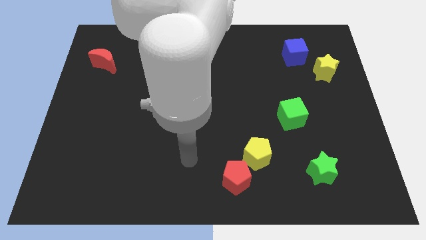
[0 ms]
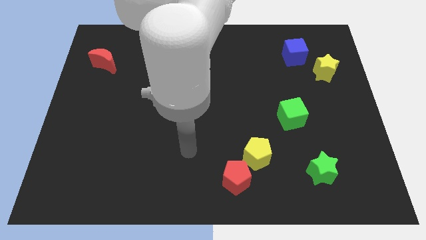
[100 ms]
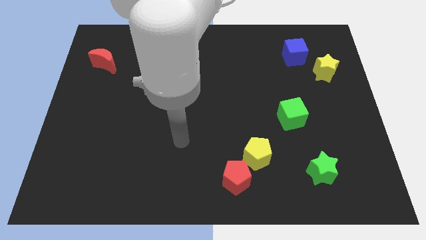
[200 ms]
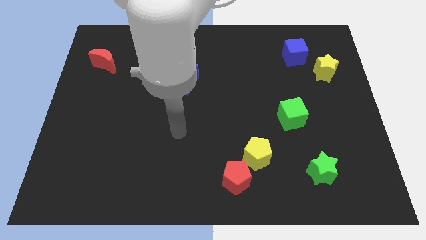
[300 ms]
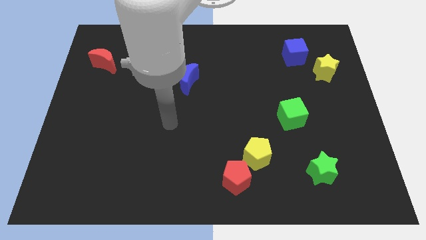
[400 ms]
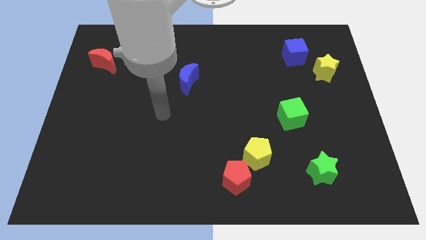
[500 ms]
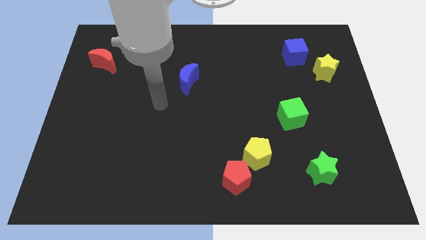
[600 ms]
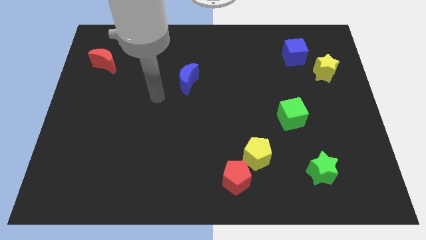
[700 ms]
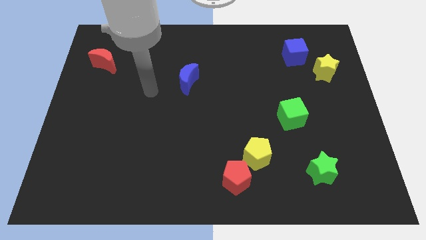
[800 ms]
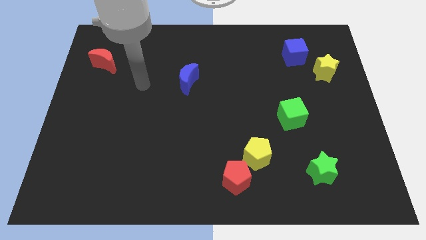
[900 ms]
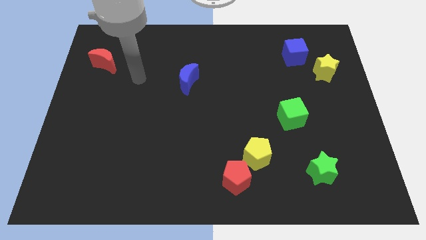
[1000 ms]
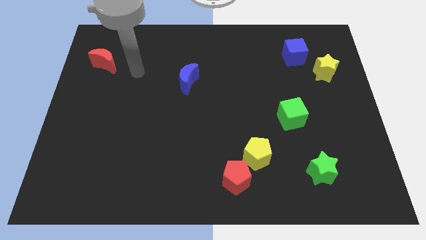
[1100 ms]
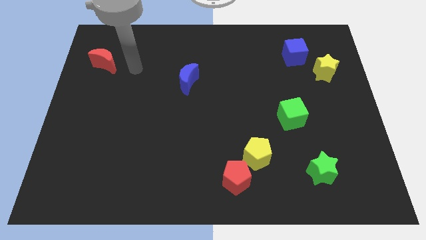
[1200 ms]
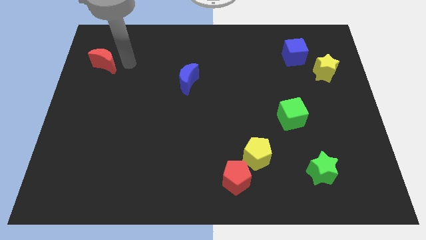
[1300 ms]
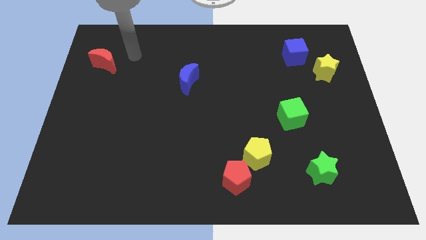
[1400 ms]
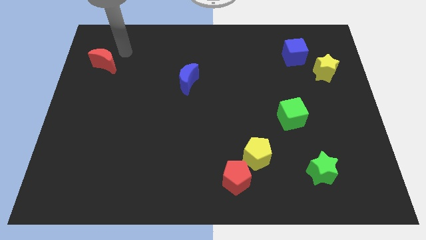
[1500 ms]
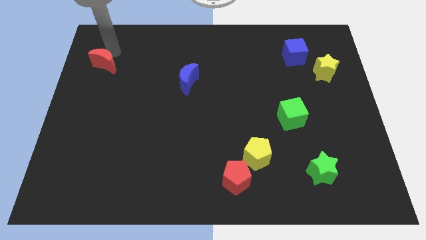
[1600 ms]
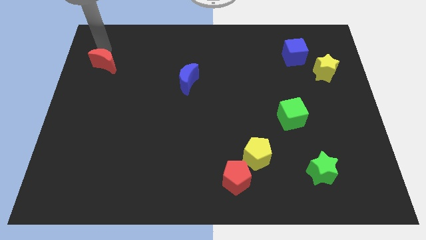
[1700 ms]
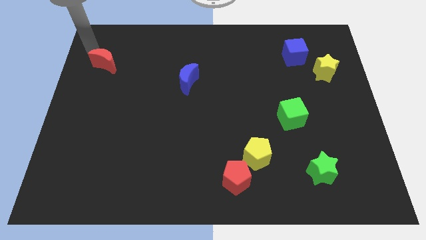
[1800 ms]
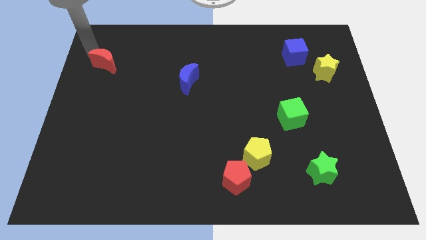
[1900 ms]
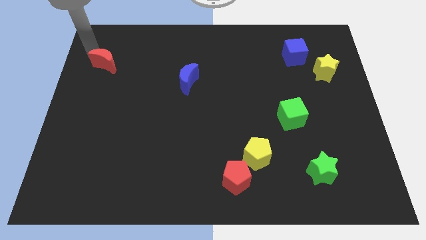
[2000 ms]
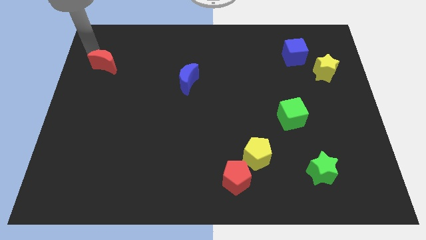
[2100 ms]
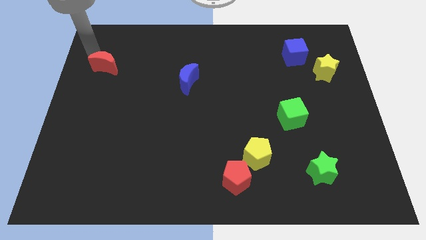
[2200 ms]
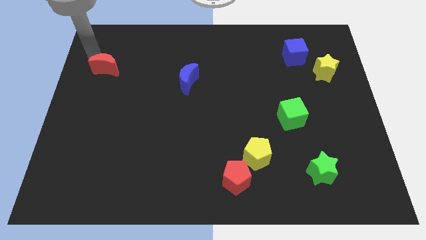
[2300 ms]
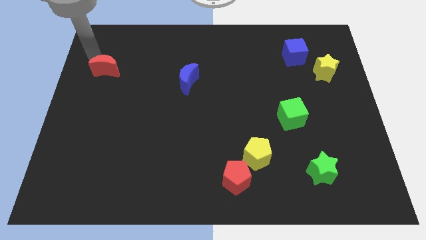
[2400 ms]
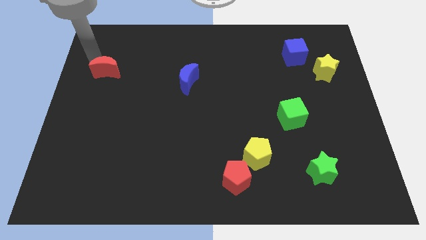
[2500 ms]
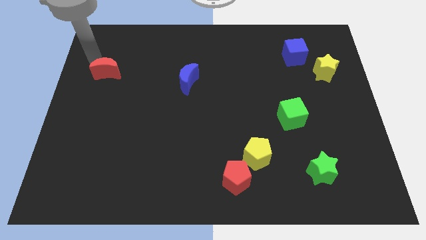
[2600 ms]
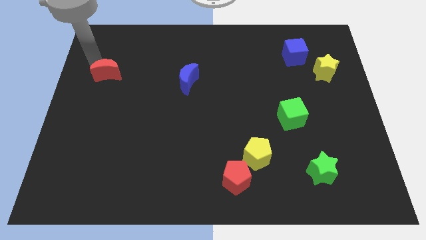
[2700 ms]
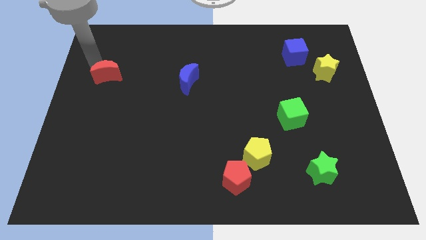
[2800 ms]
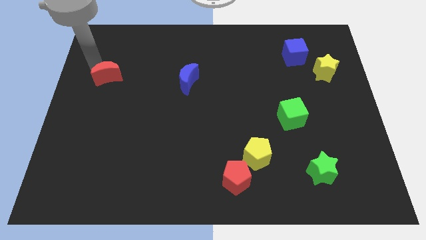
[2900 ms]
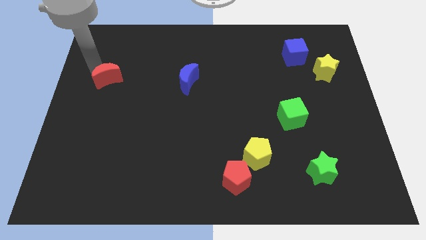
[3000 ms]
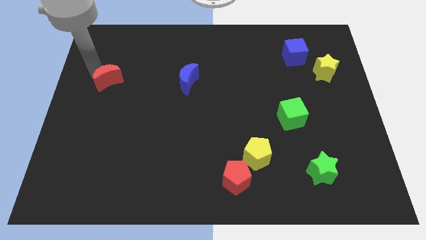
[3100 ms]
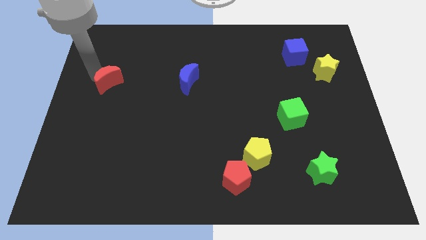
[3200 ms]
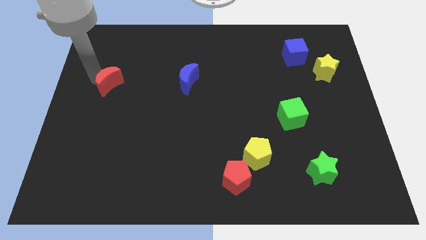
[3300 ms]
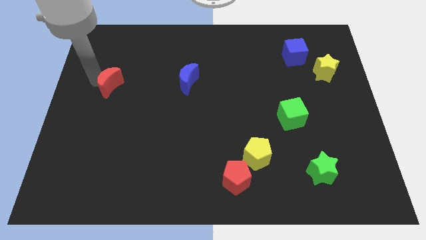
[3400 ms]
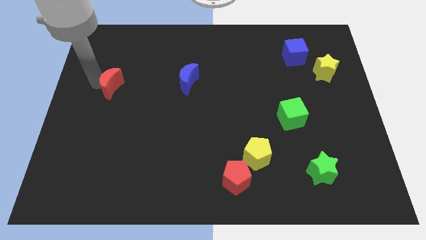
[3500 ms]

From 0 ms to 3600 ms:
push the red moon diagonally down and right somewhat

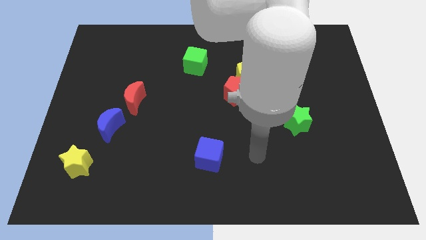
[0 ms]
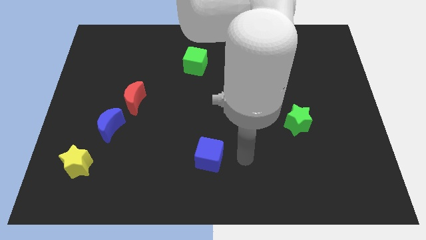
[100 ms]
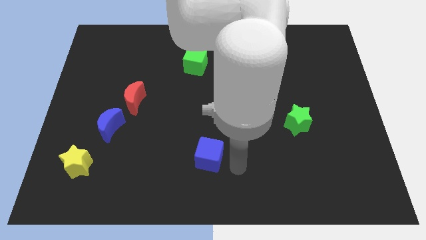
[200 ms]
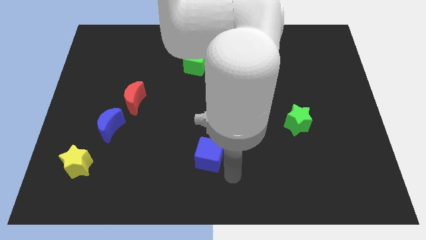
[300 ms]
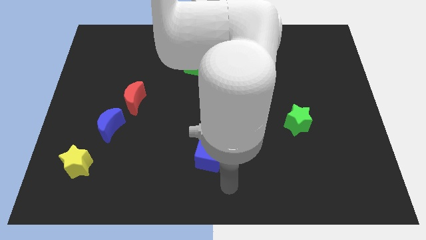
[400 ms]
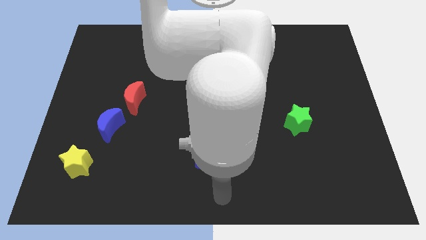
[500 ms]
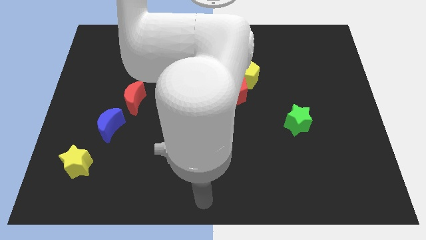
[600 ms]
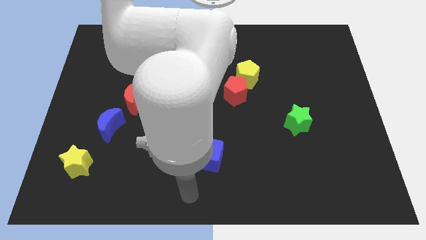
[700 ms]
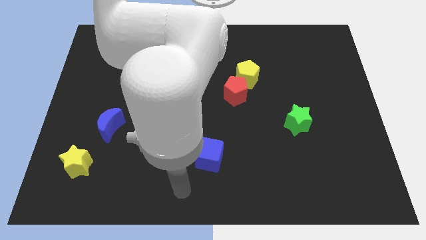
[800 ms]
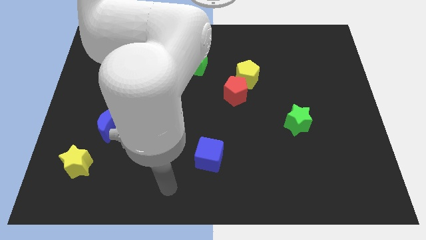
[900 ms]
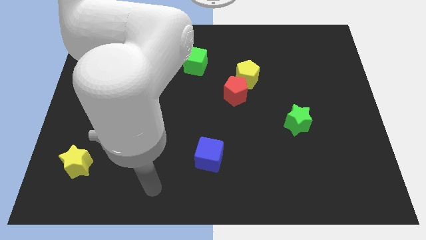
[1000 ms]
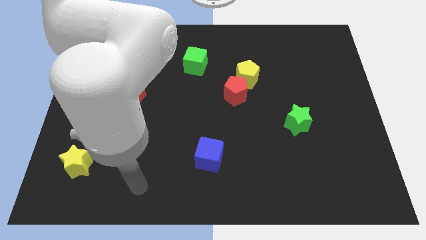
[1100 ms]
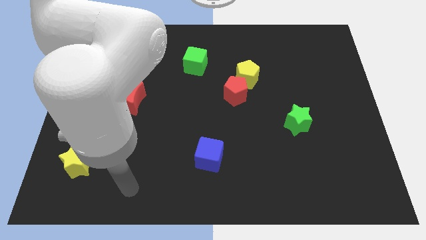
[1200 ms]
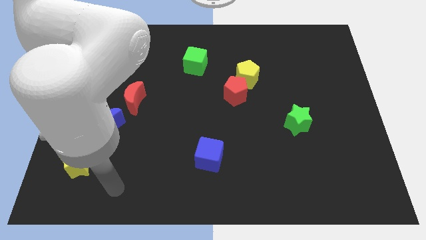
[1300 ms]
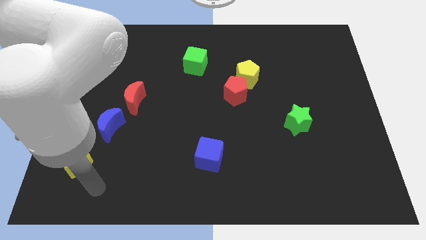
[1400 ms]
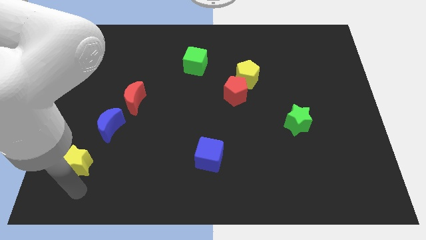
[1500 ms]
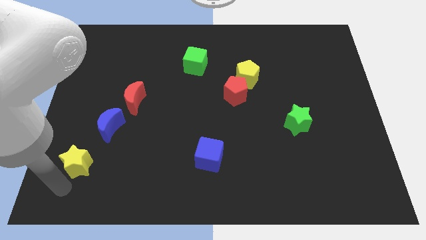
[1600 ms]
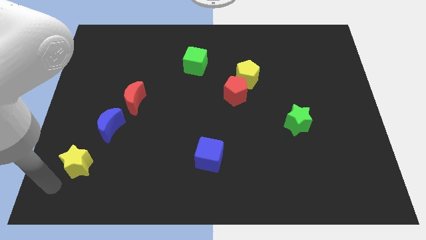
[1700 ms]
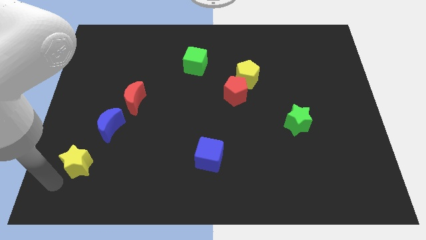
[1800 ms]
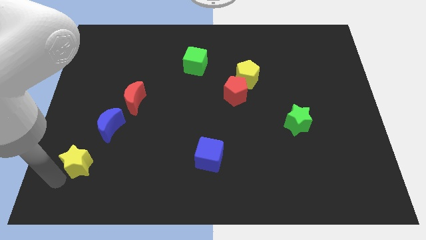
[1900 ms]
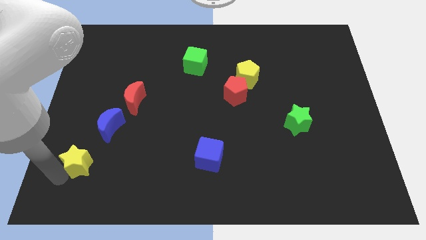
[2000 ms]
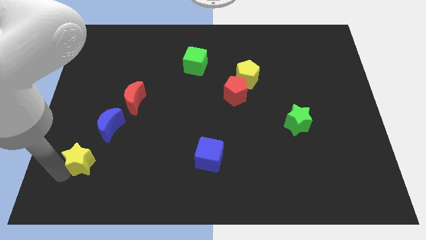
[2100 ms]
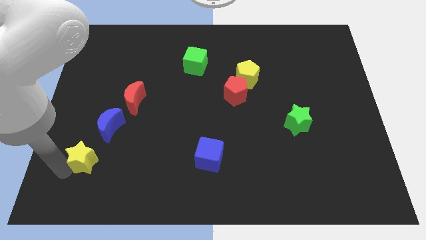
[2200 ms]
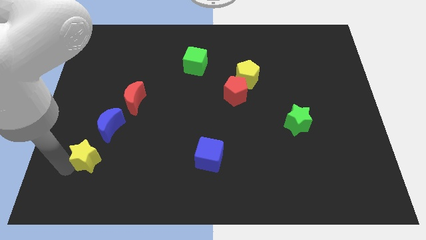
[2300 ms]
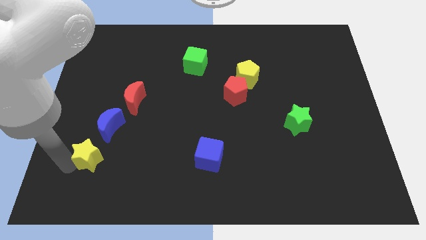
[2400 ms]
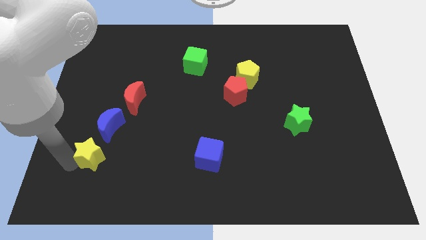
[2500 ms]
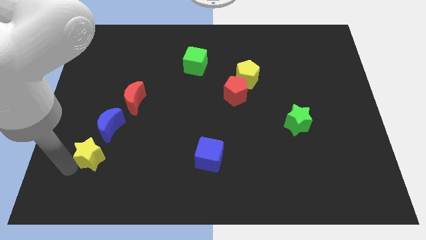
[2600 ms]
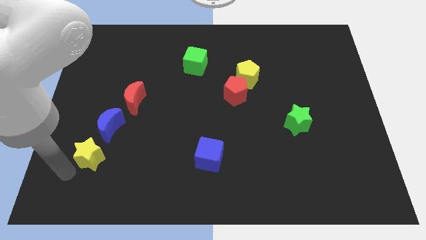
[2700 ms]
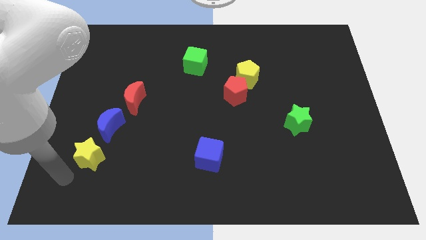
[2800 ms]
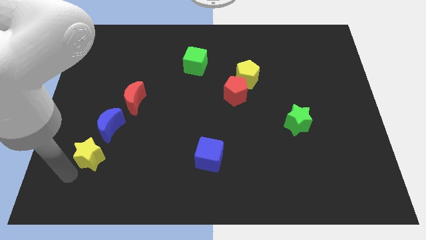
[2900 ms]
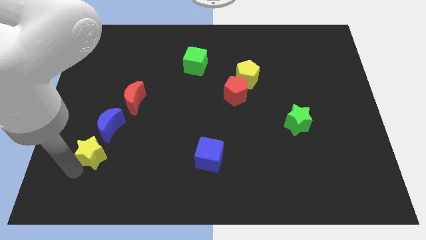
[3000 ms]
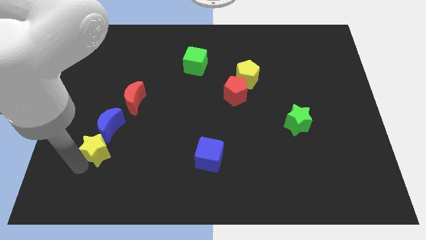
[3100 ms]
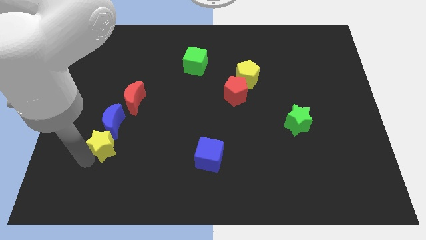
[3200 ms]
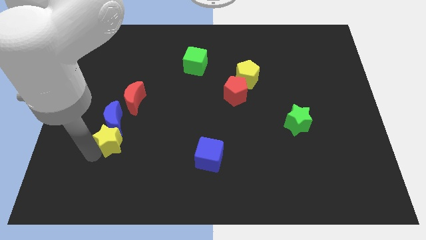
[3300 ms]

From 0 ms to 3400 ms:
push the yellow star a bit diagonally up and right

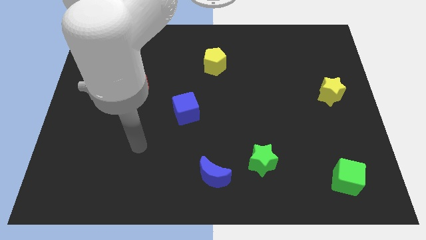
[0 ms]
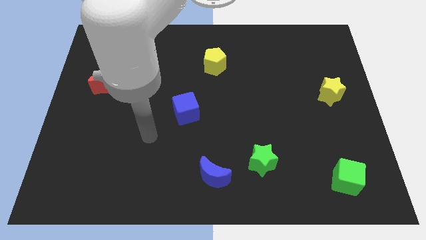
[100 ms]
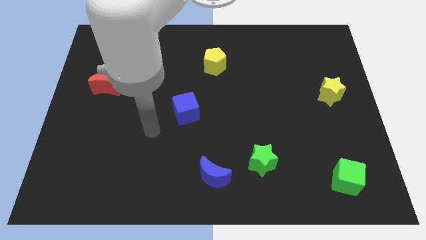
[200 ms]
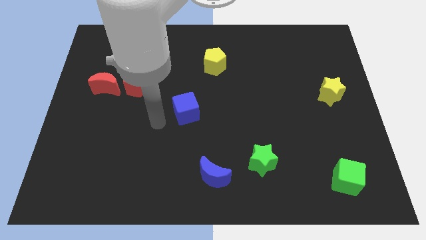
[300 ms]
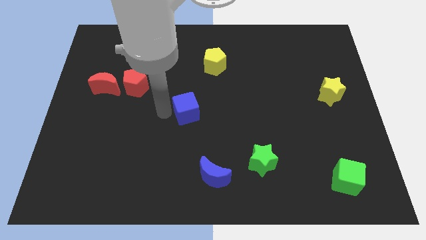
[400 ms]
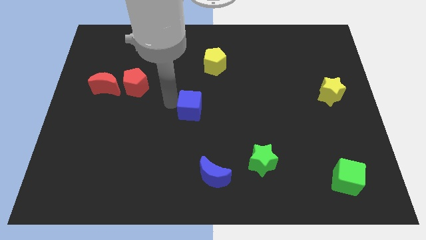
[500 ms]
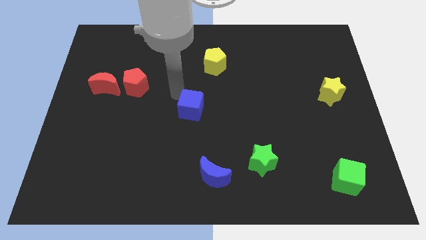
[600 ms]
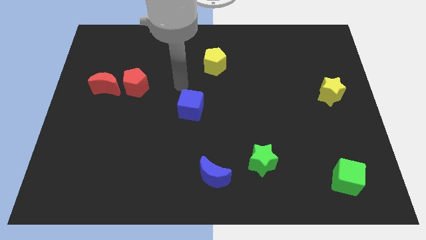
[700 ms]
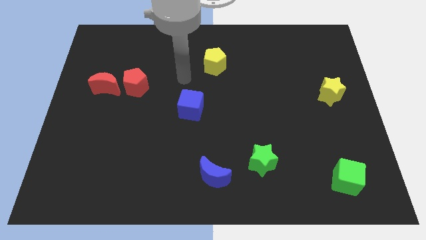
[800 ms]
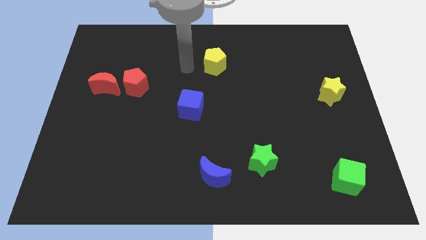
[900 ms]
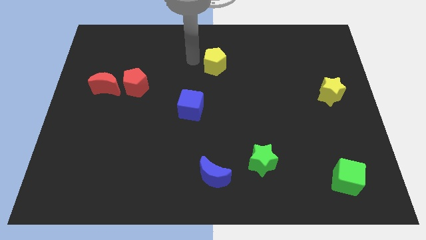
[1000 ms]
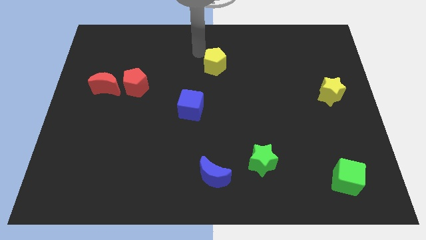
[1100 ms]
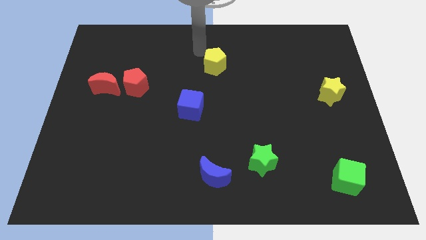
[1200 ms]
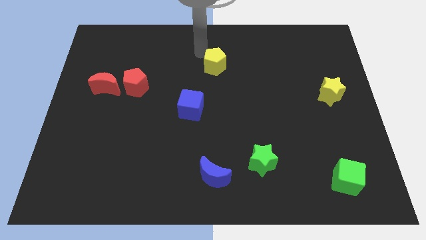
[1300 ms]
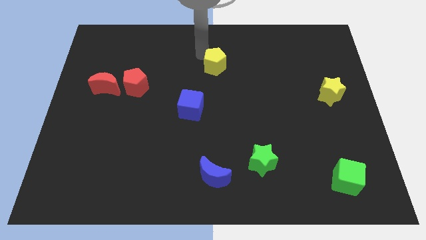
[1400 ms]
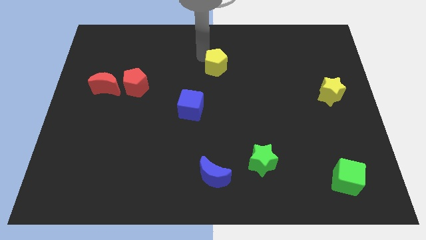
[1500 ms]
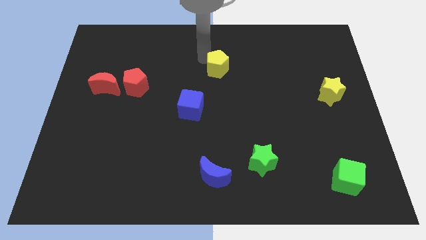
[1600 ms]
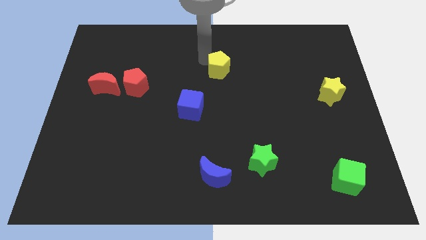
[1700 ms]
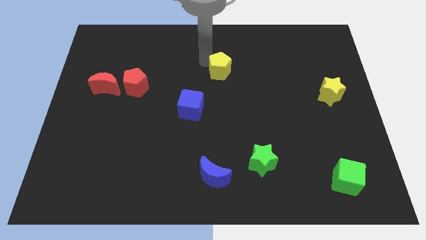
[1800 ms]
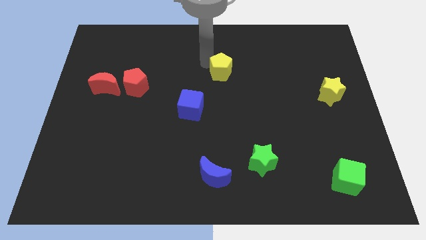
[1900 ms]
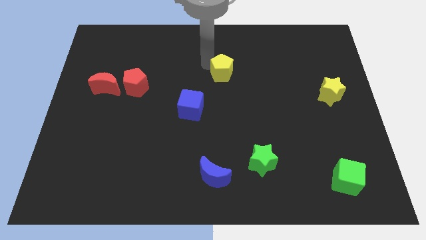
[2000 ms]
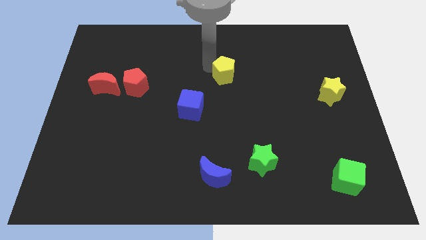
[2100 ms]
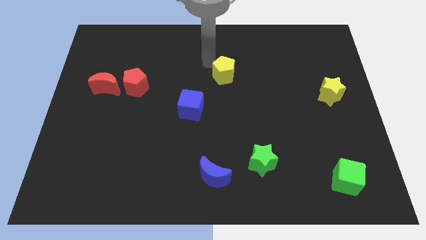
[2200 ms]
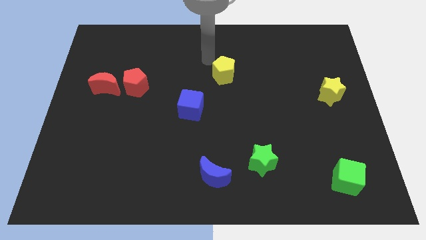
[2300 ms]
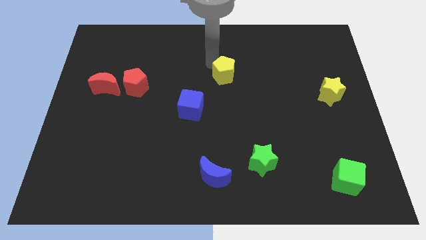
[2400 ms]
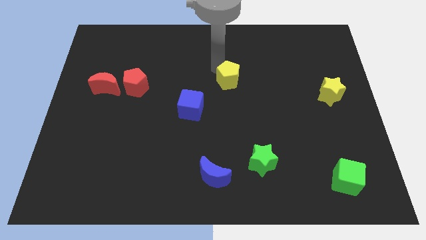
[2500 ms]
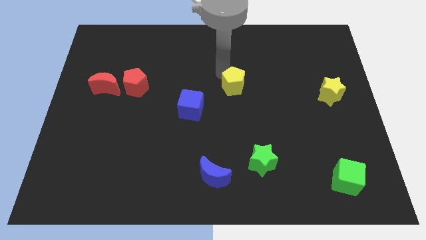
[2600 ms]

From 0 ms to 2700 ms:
slightly move the yellow pentagon downwards and then right
